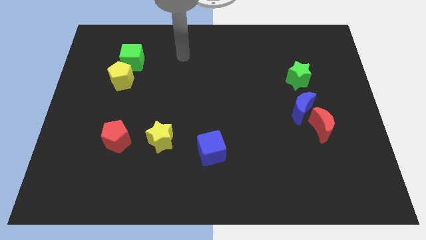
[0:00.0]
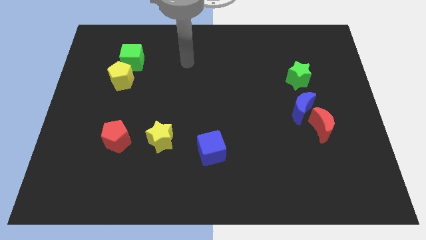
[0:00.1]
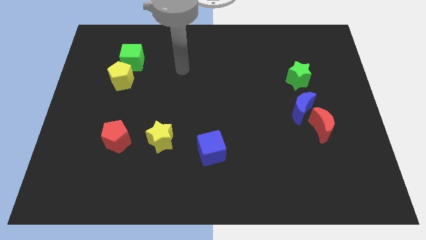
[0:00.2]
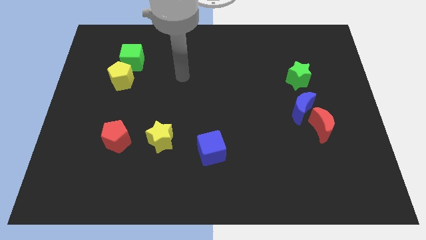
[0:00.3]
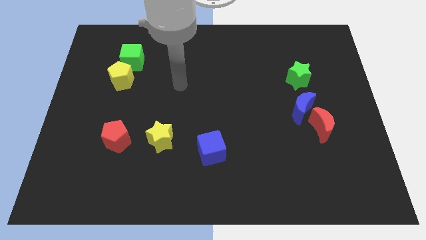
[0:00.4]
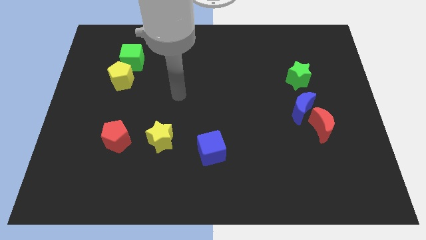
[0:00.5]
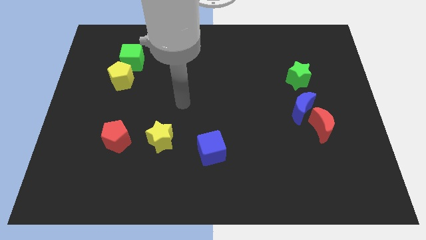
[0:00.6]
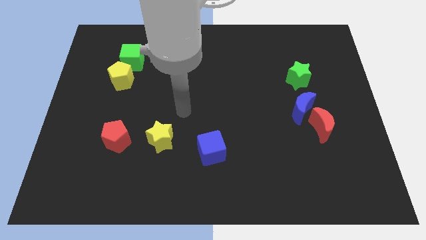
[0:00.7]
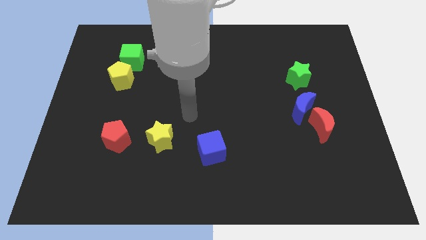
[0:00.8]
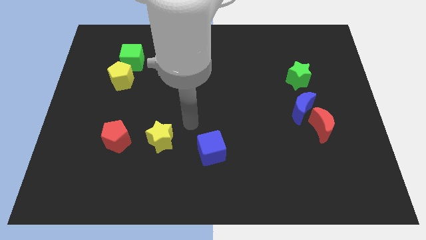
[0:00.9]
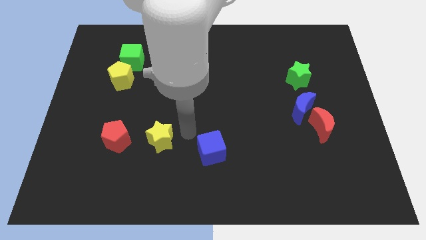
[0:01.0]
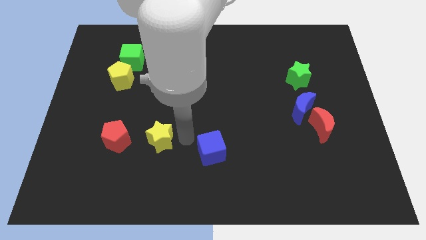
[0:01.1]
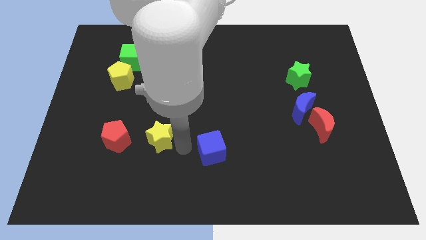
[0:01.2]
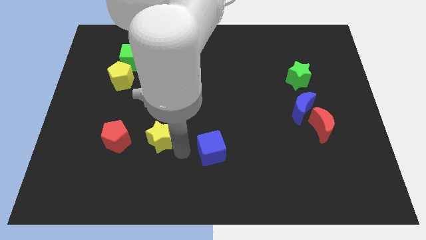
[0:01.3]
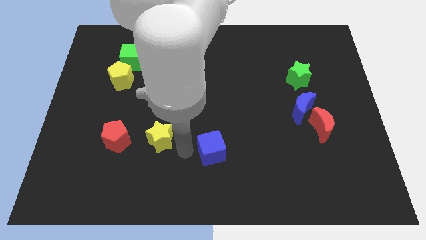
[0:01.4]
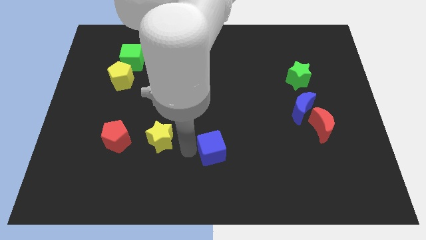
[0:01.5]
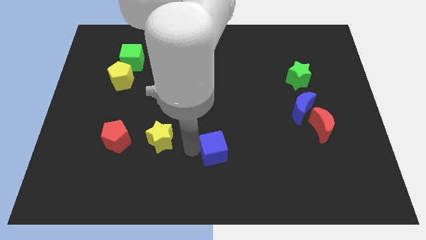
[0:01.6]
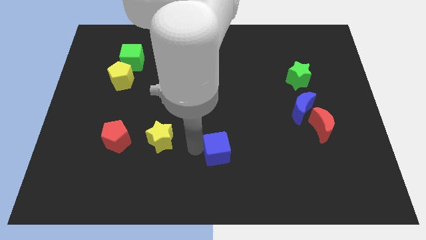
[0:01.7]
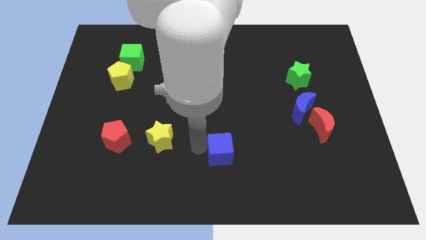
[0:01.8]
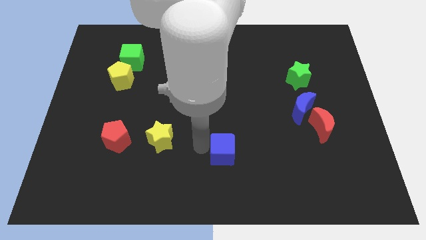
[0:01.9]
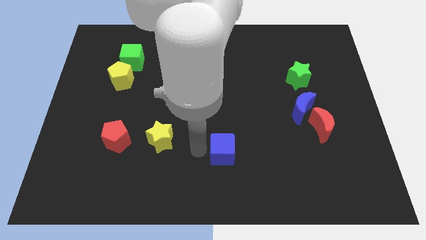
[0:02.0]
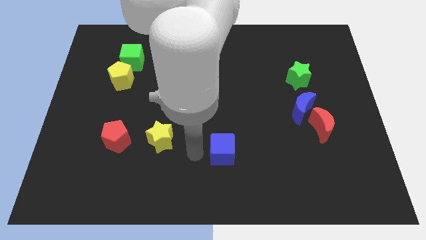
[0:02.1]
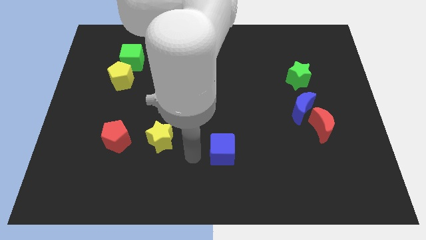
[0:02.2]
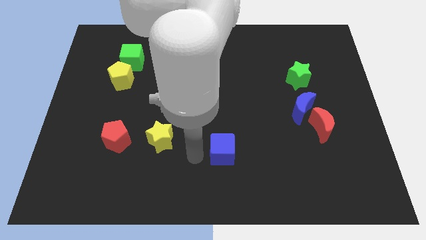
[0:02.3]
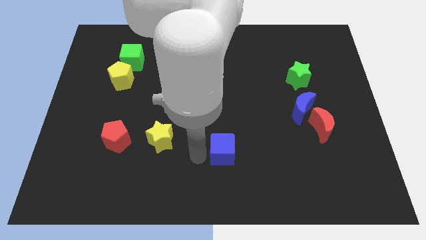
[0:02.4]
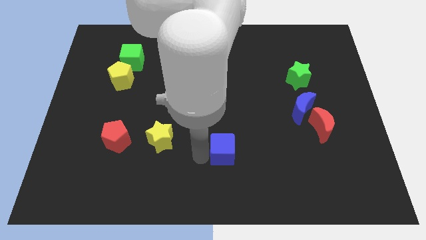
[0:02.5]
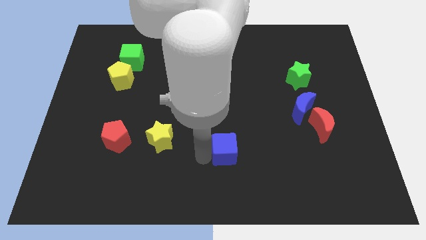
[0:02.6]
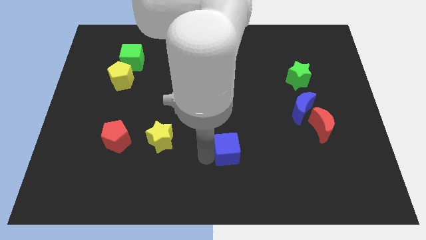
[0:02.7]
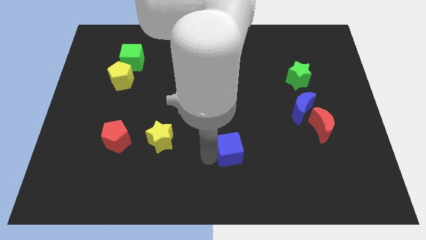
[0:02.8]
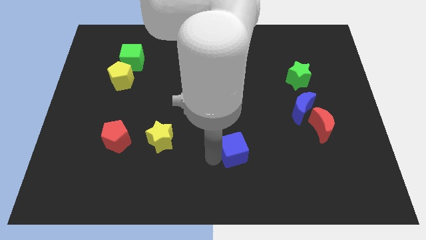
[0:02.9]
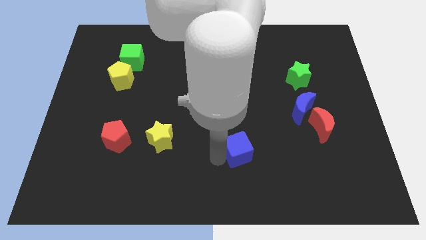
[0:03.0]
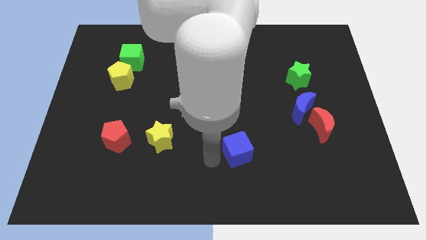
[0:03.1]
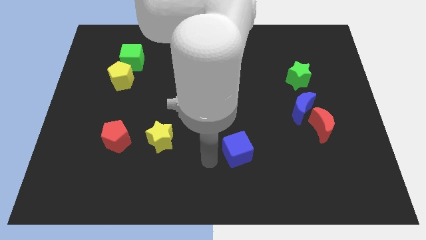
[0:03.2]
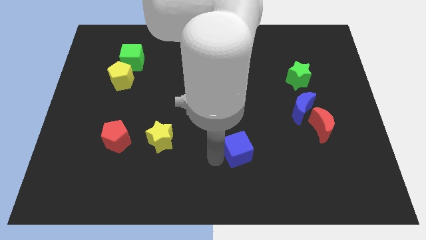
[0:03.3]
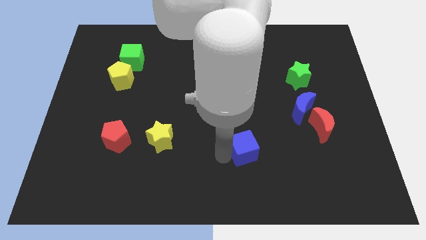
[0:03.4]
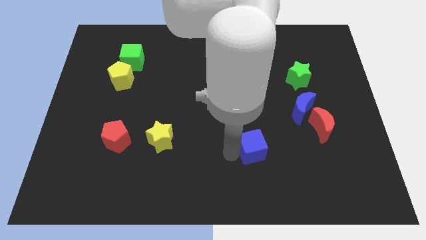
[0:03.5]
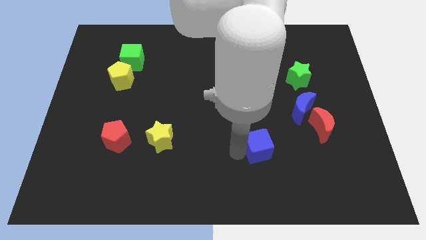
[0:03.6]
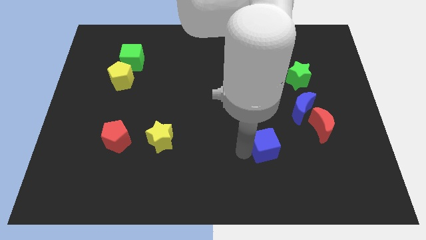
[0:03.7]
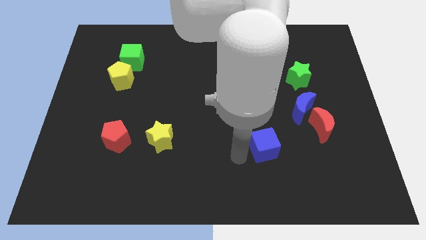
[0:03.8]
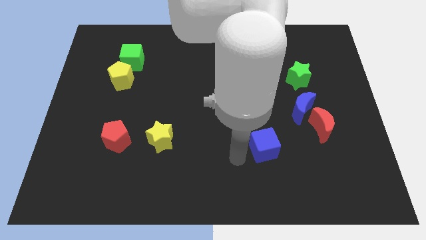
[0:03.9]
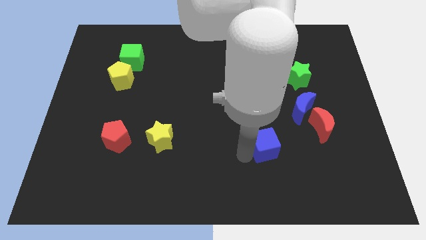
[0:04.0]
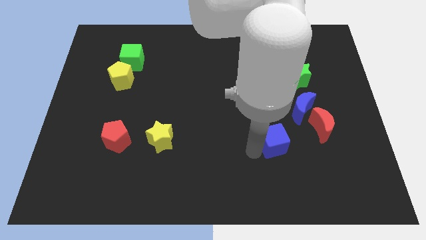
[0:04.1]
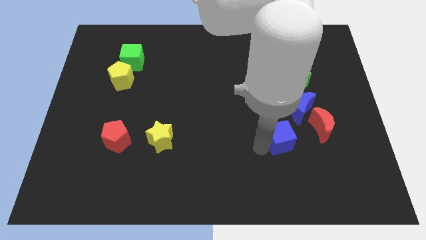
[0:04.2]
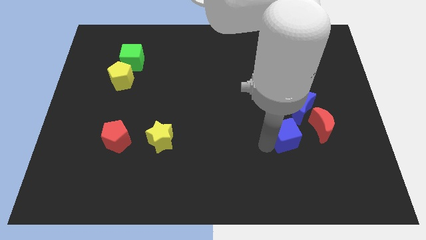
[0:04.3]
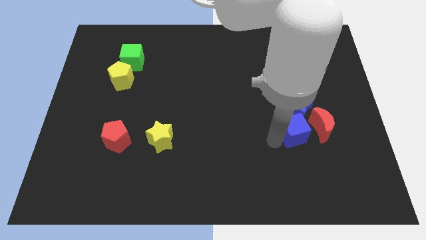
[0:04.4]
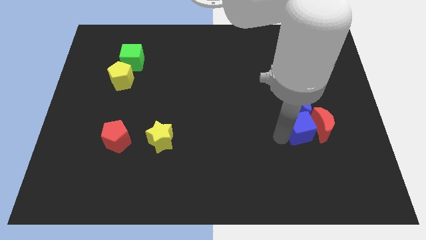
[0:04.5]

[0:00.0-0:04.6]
put the blue cube to the red moon

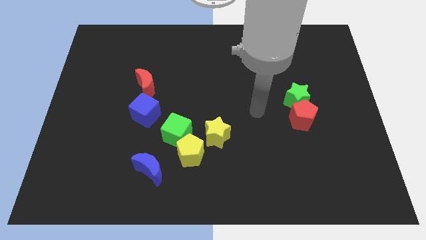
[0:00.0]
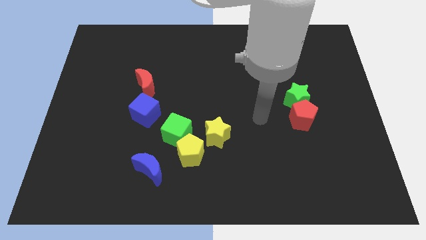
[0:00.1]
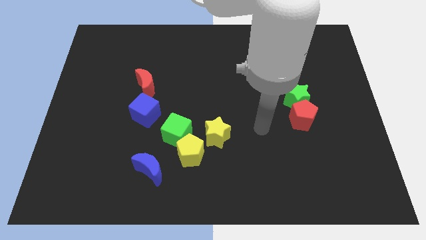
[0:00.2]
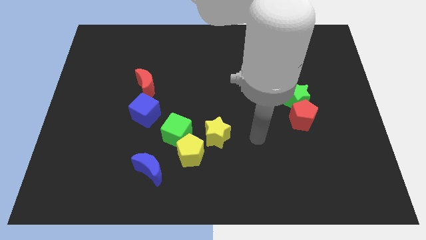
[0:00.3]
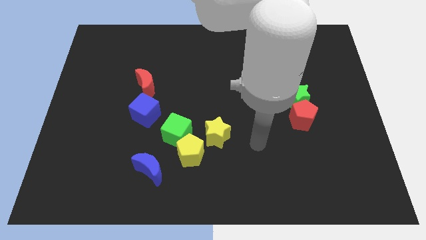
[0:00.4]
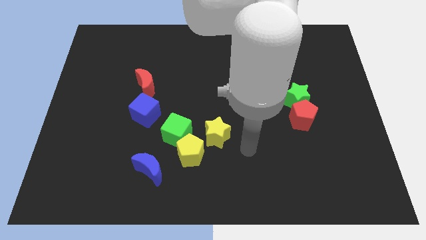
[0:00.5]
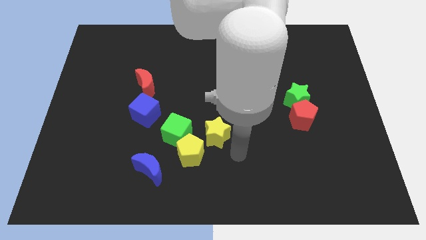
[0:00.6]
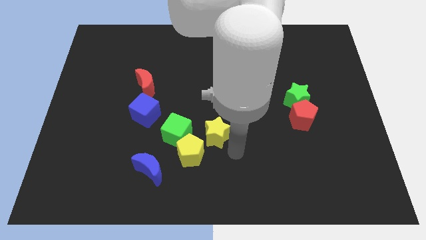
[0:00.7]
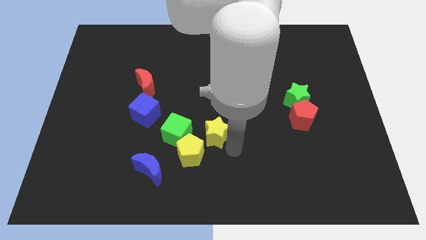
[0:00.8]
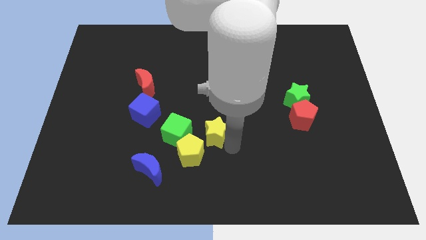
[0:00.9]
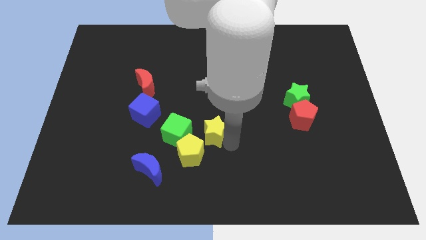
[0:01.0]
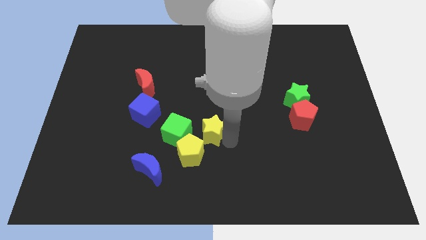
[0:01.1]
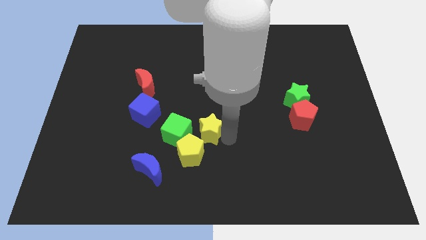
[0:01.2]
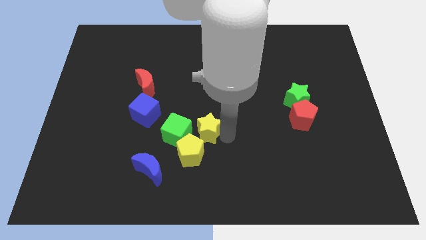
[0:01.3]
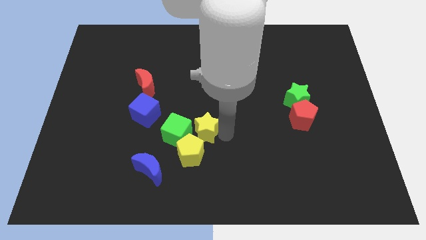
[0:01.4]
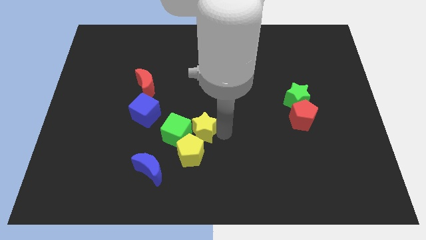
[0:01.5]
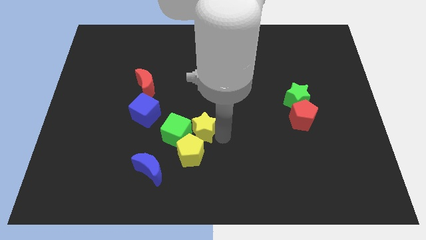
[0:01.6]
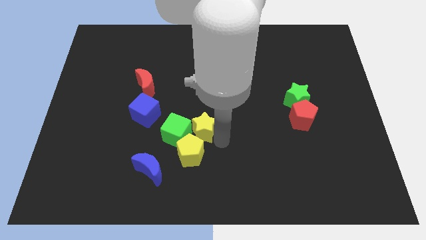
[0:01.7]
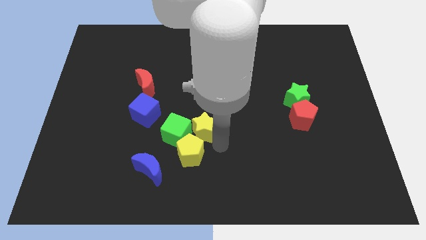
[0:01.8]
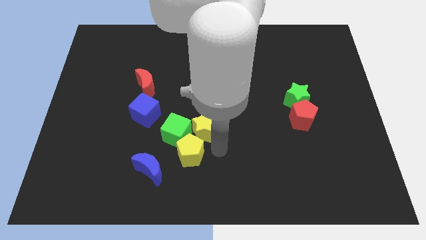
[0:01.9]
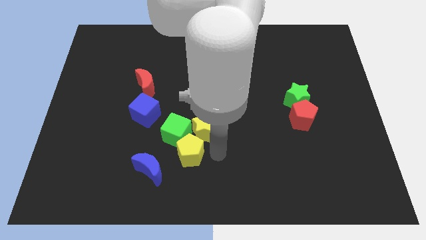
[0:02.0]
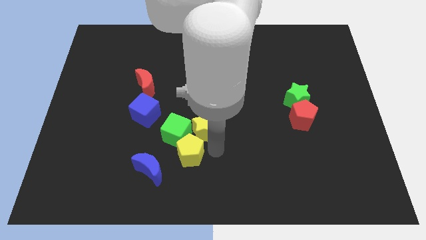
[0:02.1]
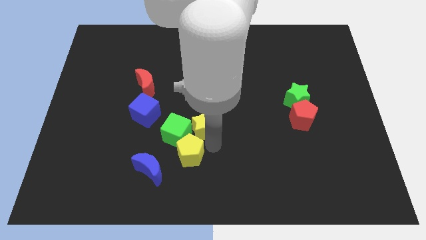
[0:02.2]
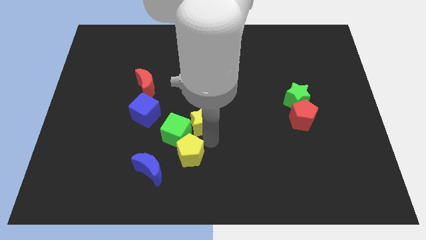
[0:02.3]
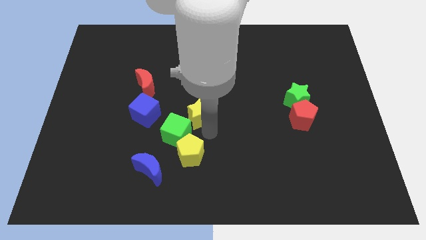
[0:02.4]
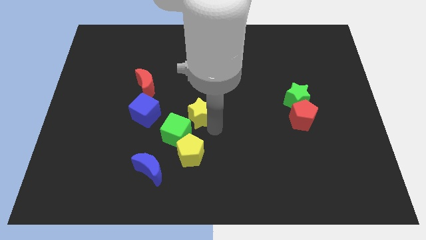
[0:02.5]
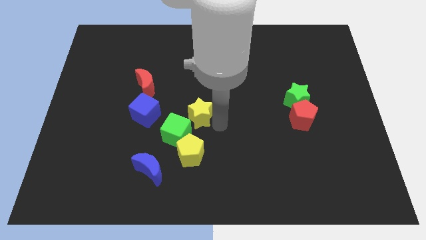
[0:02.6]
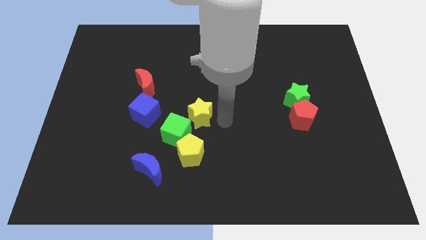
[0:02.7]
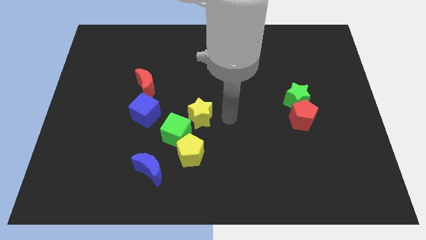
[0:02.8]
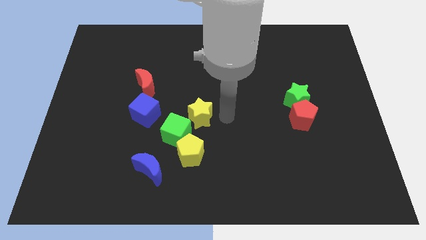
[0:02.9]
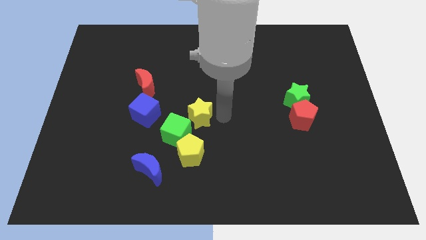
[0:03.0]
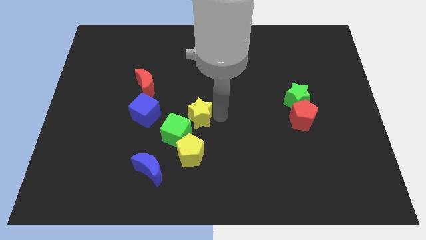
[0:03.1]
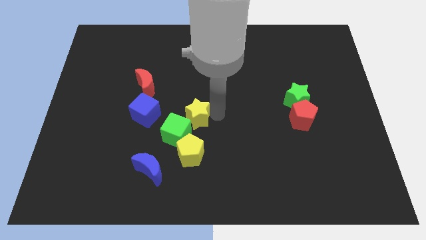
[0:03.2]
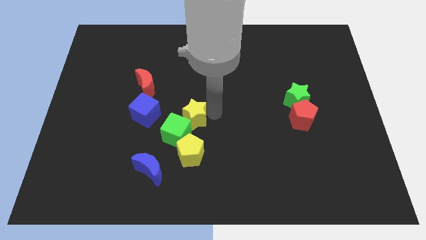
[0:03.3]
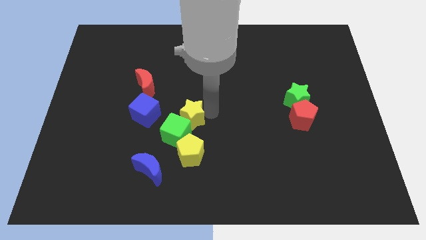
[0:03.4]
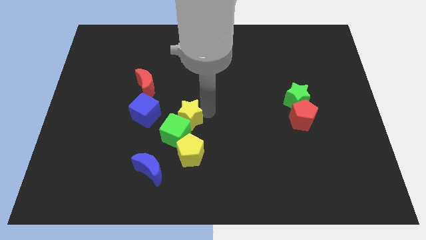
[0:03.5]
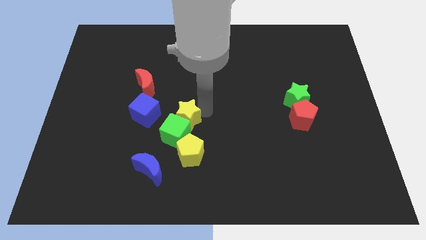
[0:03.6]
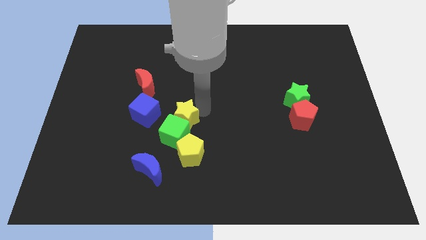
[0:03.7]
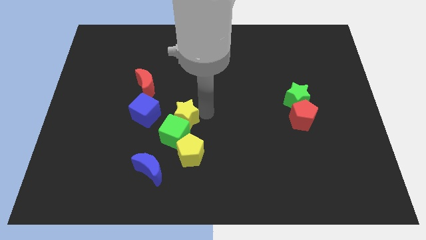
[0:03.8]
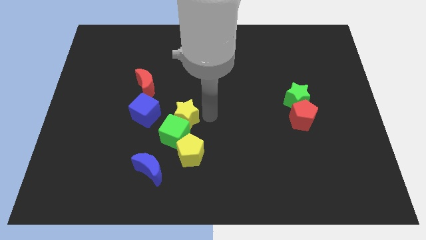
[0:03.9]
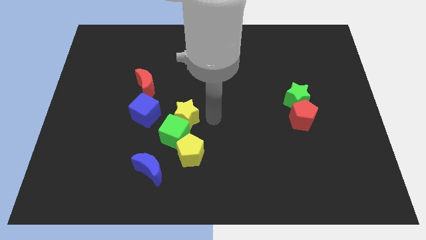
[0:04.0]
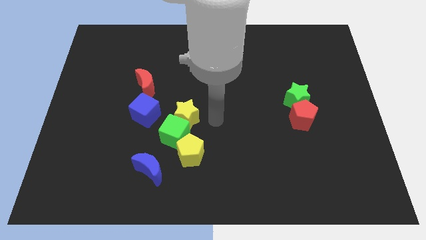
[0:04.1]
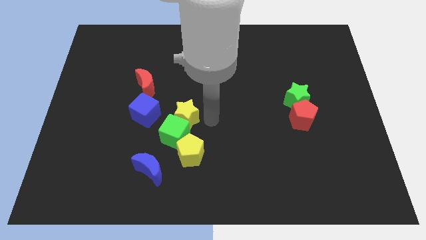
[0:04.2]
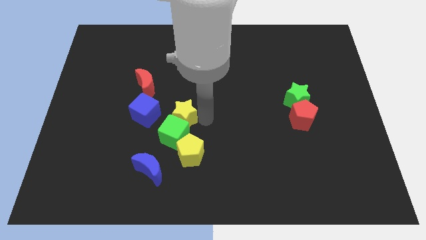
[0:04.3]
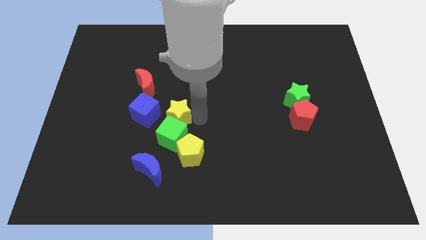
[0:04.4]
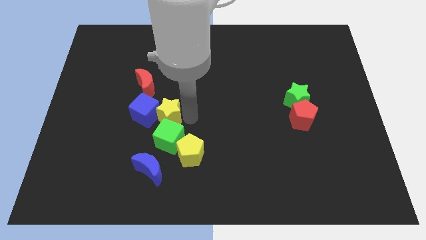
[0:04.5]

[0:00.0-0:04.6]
slide the yellow star next to the blue cube
